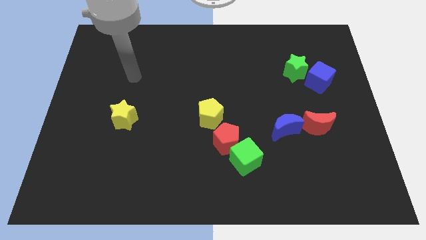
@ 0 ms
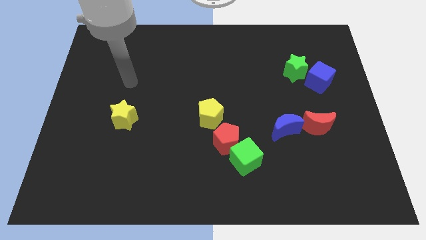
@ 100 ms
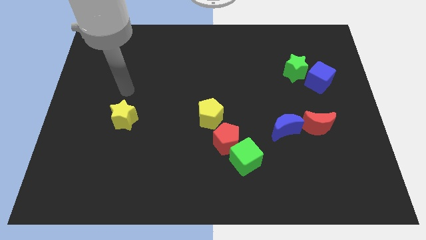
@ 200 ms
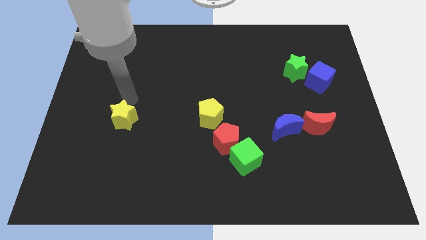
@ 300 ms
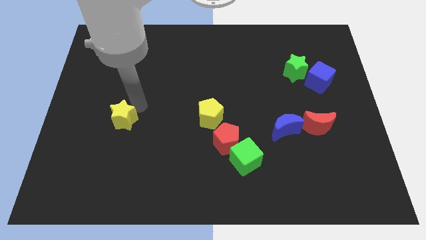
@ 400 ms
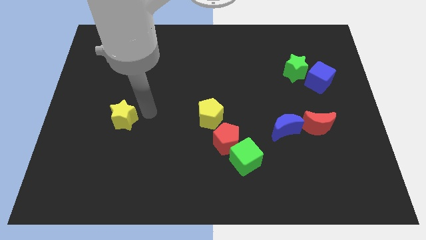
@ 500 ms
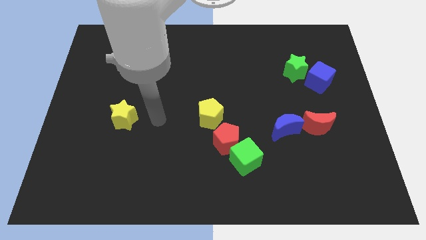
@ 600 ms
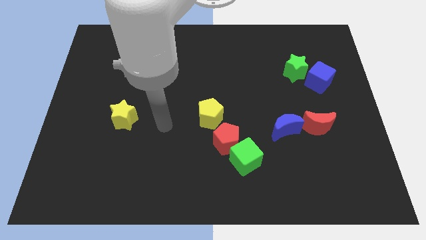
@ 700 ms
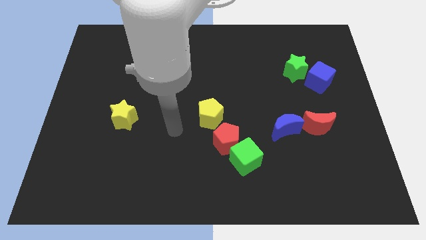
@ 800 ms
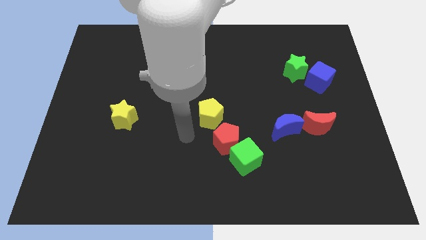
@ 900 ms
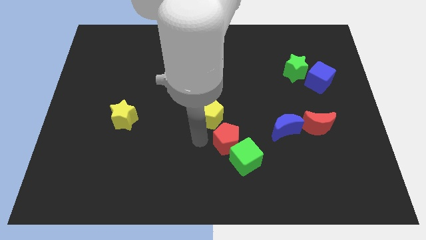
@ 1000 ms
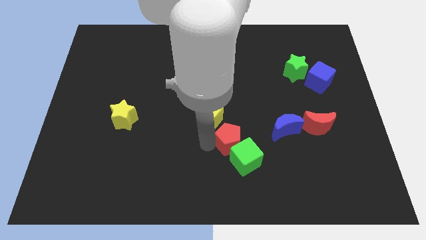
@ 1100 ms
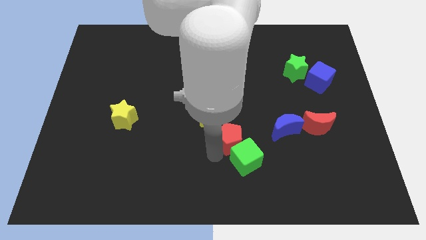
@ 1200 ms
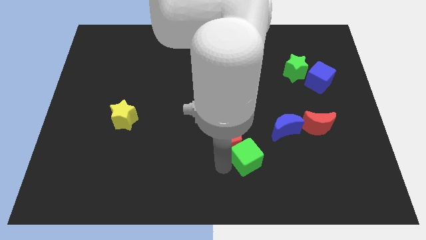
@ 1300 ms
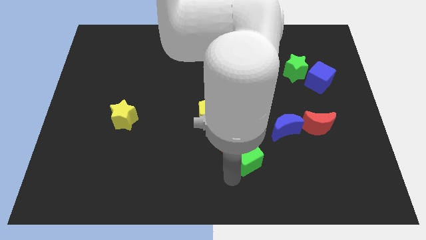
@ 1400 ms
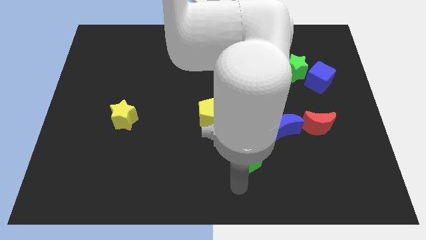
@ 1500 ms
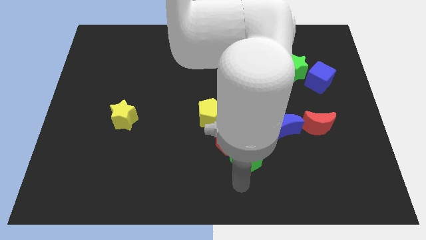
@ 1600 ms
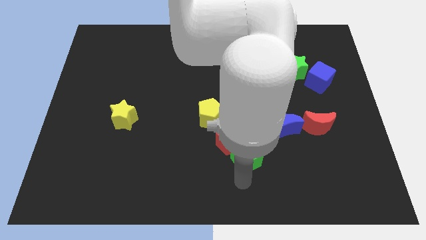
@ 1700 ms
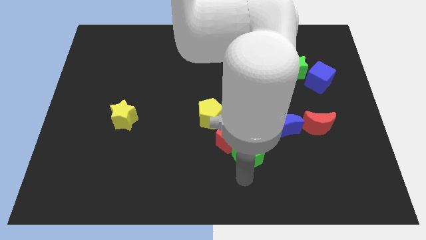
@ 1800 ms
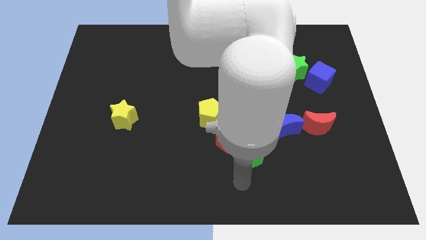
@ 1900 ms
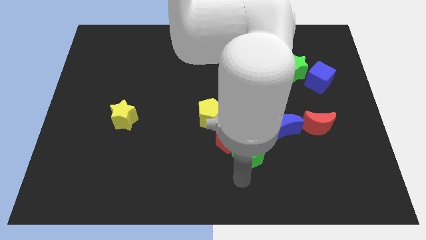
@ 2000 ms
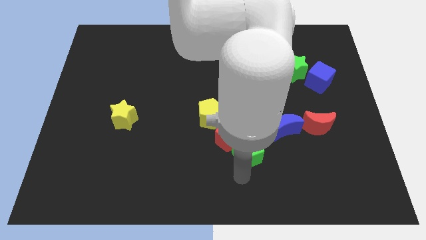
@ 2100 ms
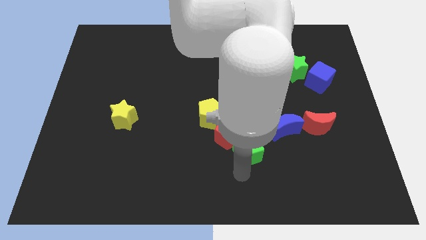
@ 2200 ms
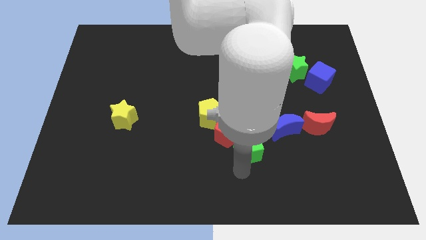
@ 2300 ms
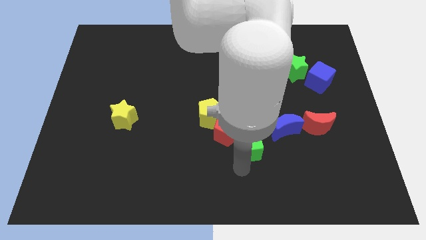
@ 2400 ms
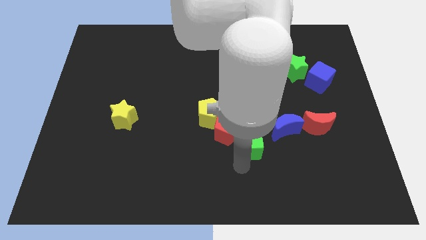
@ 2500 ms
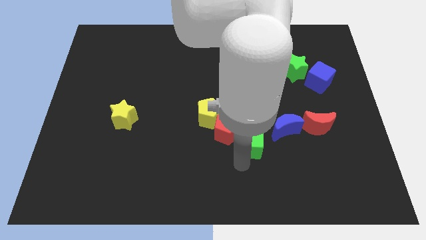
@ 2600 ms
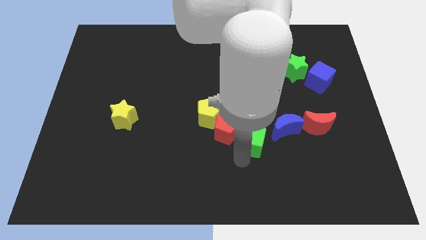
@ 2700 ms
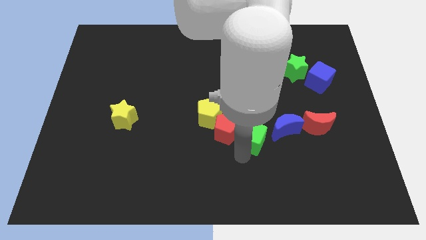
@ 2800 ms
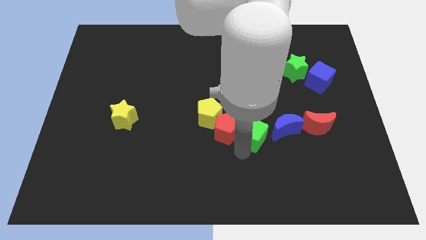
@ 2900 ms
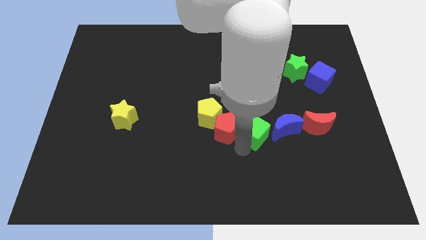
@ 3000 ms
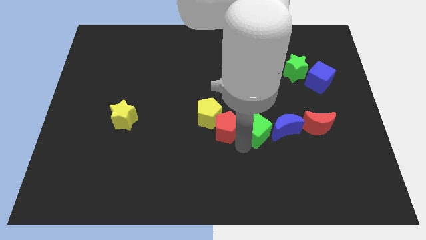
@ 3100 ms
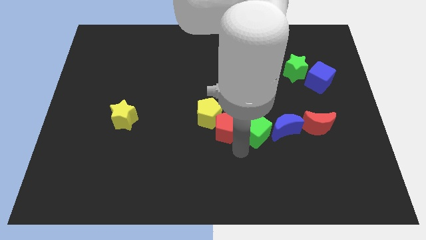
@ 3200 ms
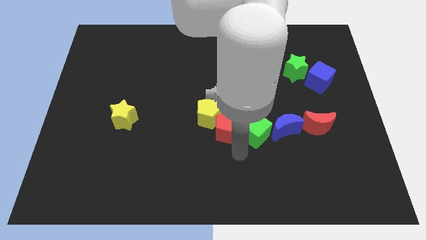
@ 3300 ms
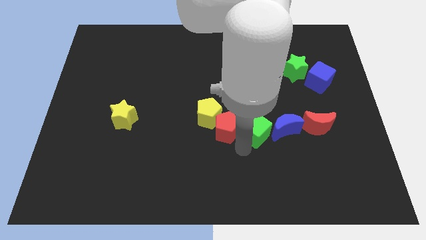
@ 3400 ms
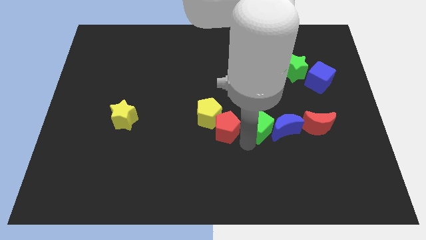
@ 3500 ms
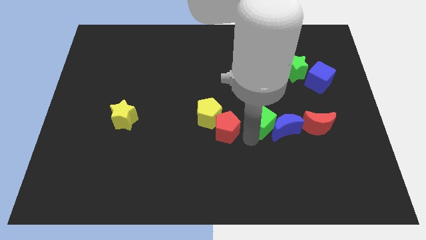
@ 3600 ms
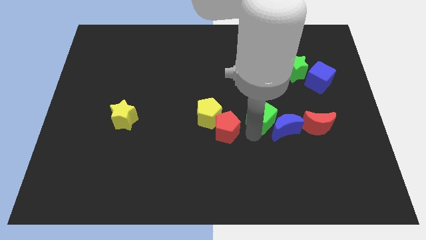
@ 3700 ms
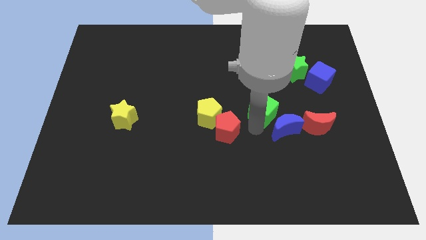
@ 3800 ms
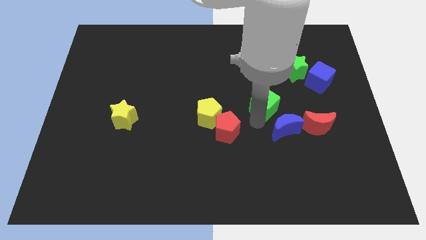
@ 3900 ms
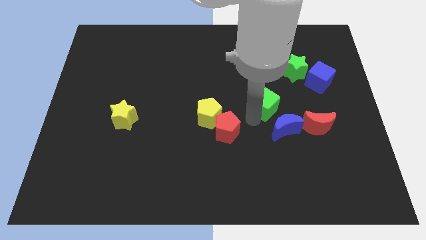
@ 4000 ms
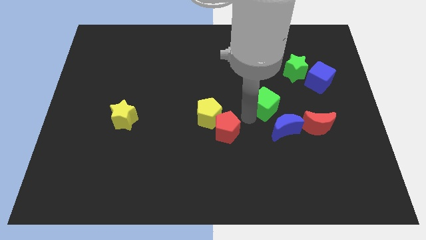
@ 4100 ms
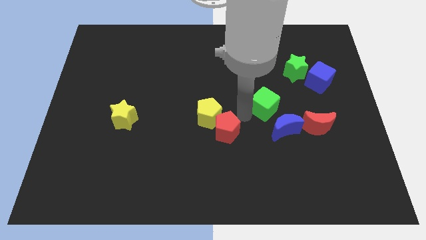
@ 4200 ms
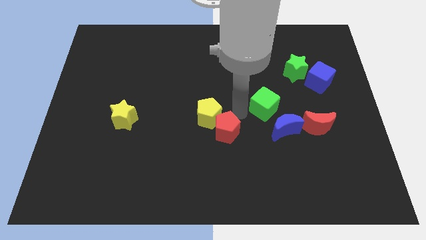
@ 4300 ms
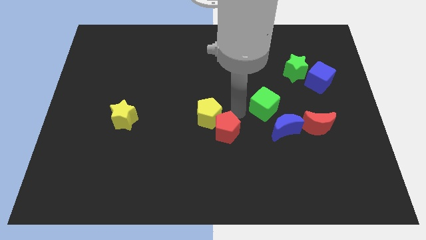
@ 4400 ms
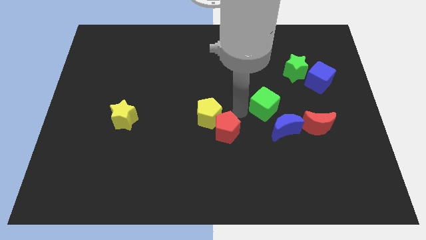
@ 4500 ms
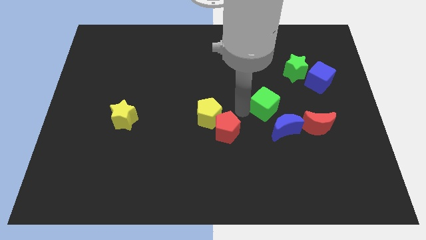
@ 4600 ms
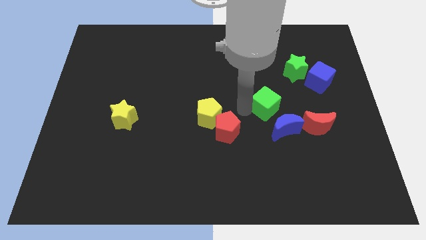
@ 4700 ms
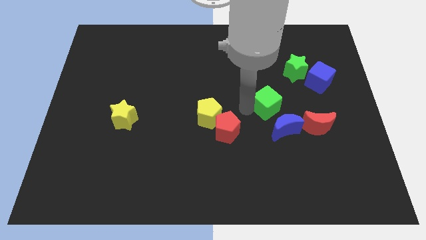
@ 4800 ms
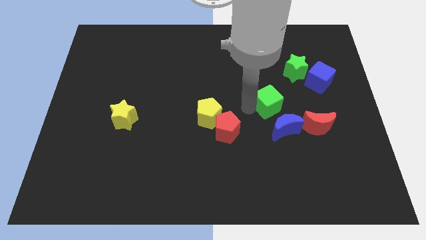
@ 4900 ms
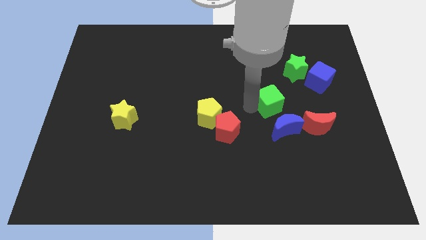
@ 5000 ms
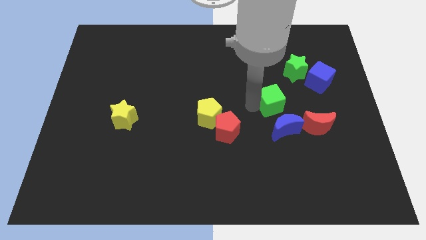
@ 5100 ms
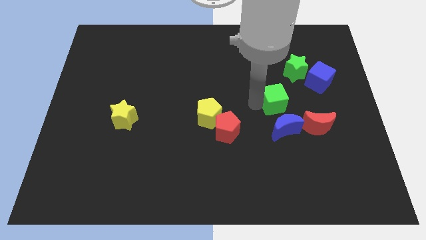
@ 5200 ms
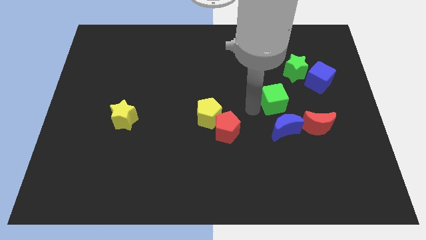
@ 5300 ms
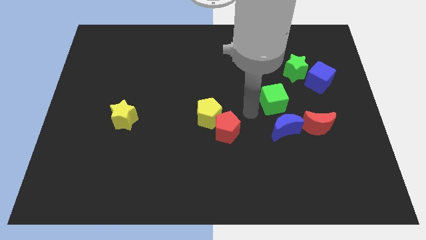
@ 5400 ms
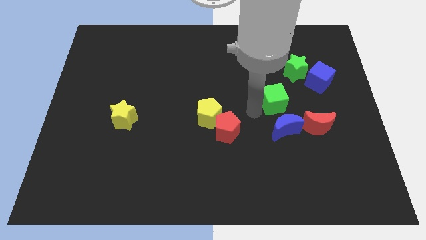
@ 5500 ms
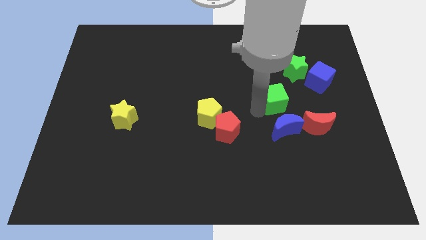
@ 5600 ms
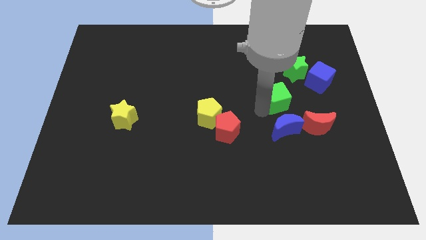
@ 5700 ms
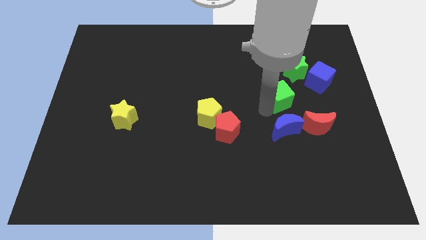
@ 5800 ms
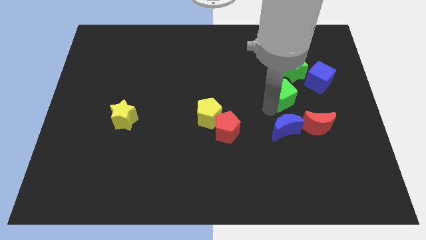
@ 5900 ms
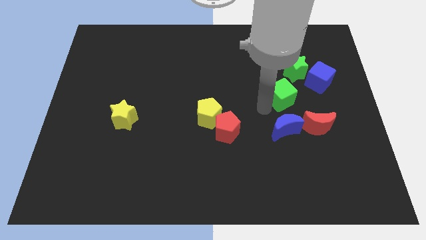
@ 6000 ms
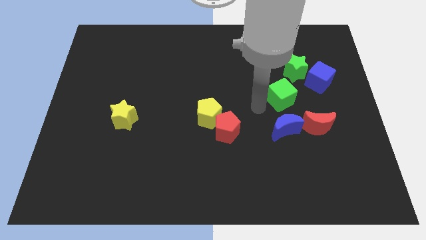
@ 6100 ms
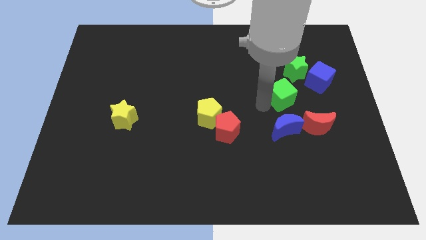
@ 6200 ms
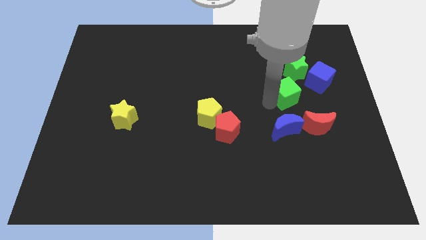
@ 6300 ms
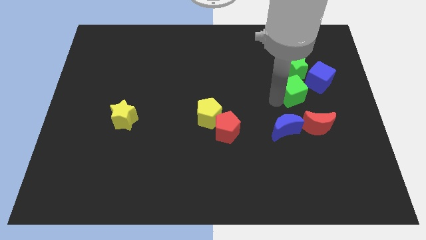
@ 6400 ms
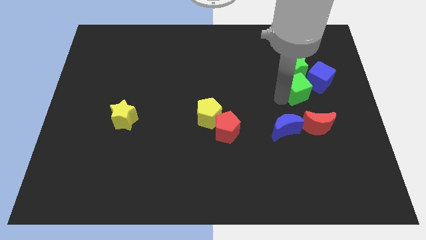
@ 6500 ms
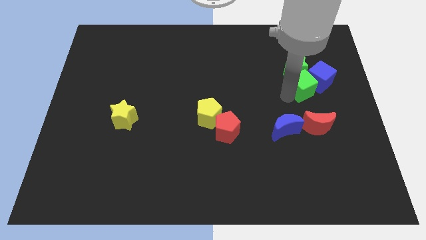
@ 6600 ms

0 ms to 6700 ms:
slide the green cube towards the blue cube
